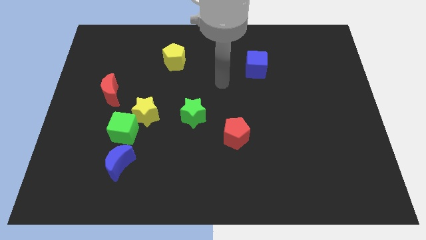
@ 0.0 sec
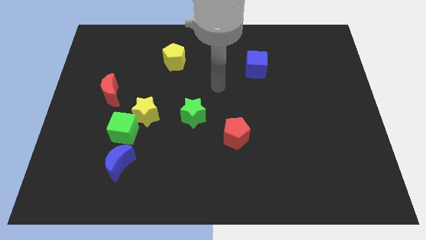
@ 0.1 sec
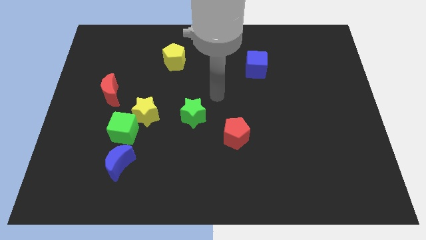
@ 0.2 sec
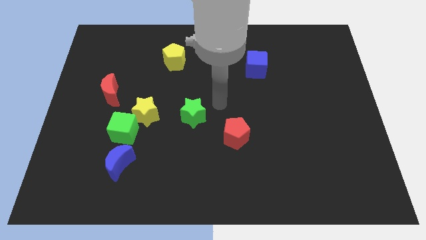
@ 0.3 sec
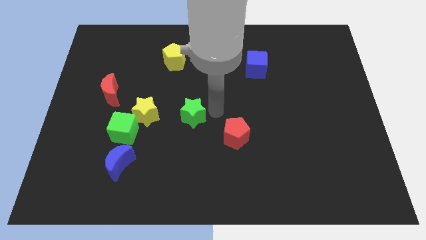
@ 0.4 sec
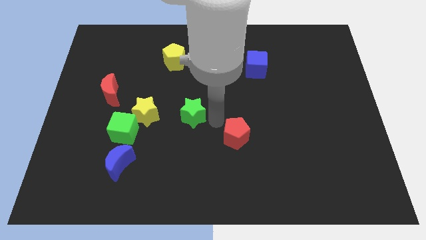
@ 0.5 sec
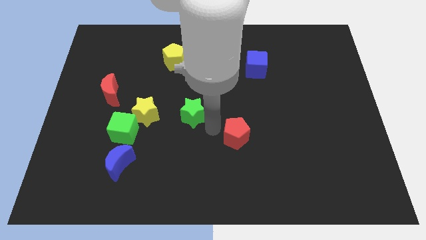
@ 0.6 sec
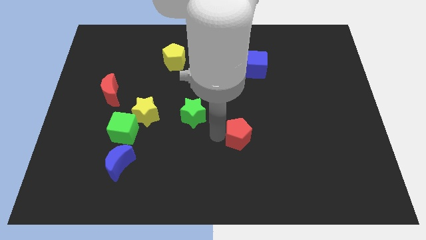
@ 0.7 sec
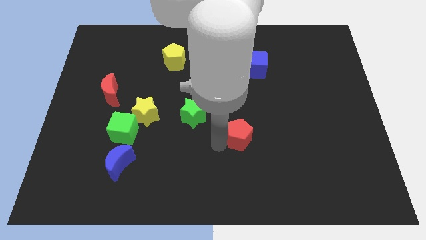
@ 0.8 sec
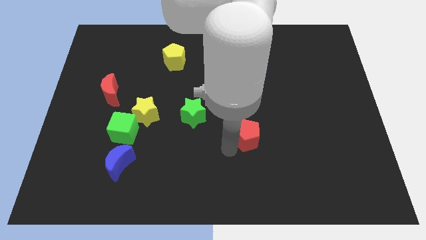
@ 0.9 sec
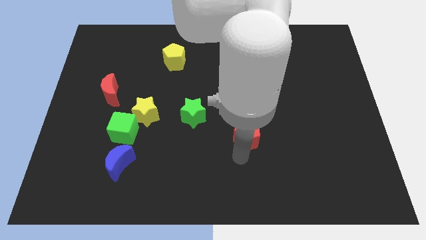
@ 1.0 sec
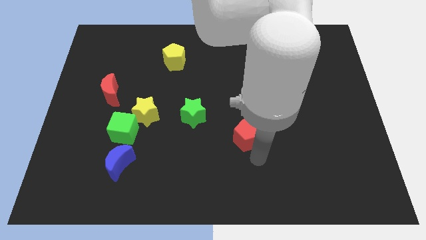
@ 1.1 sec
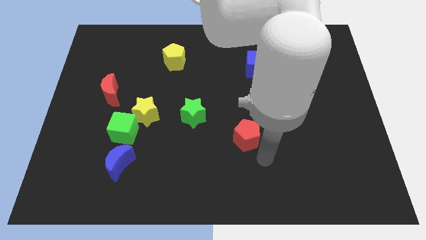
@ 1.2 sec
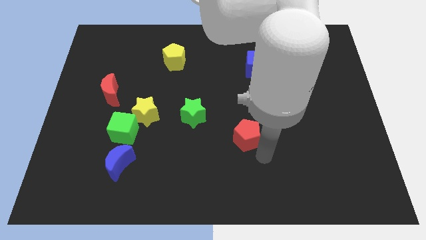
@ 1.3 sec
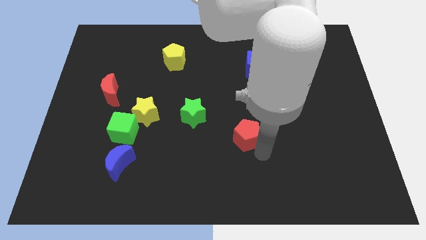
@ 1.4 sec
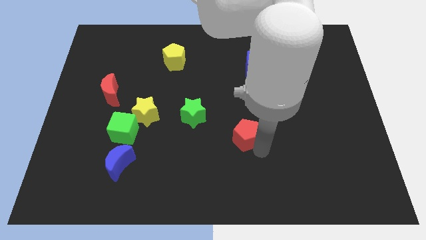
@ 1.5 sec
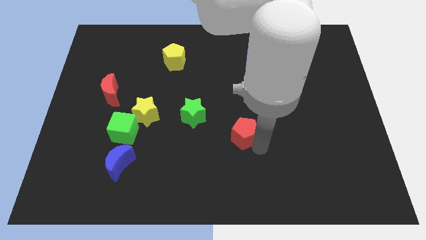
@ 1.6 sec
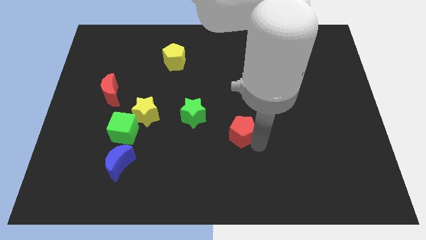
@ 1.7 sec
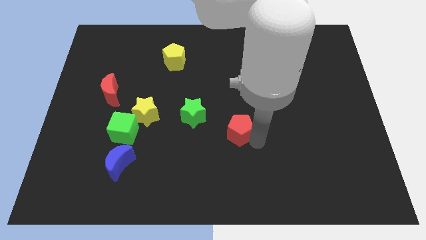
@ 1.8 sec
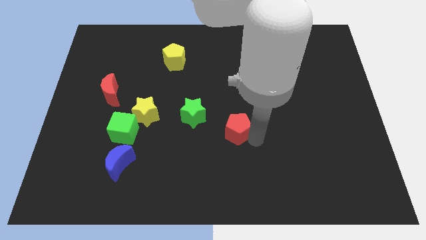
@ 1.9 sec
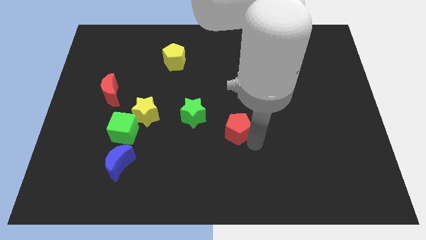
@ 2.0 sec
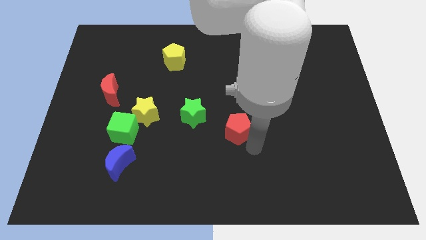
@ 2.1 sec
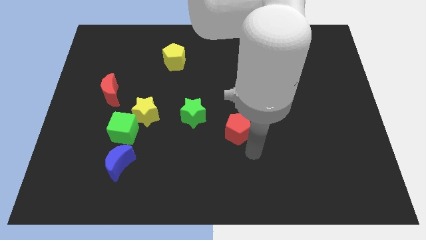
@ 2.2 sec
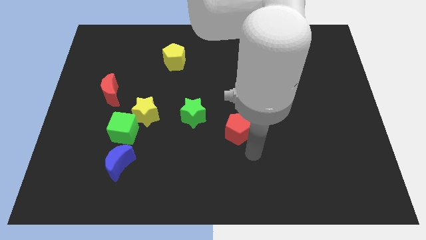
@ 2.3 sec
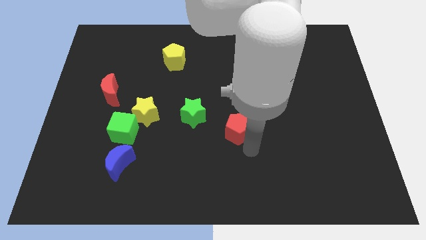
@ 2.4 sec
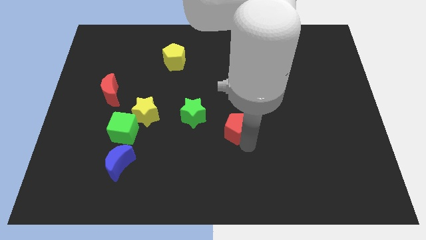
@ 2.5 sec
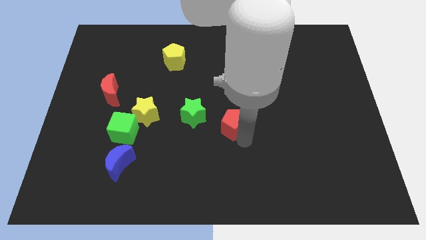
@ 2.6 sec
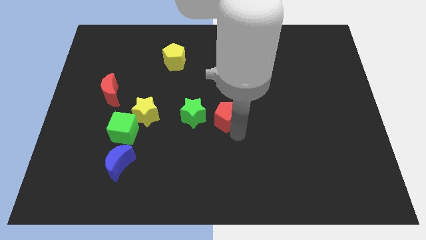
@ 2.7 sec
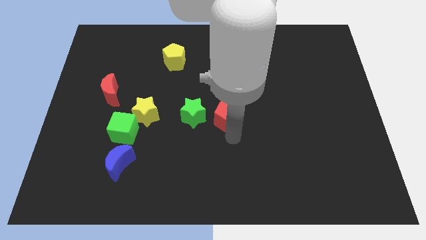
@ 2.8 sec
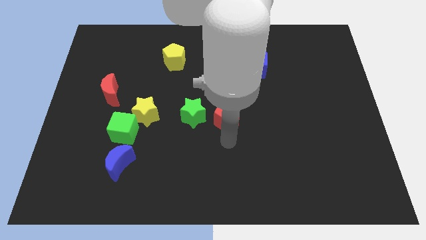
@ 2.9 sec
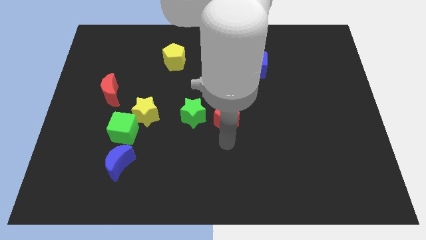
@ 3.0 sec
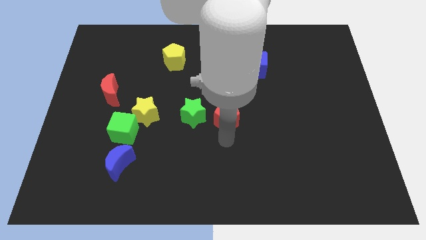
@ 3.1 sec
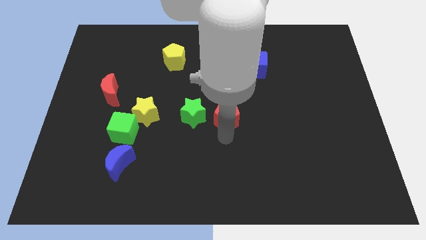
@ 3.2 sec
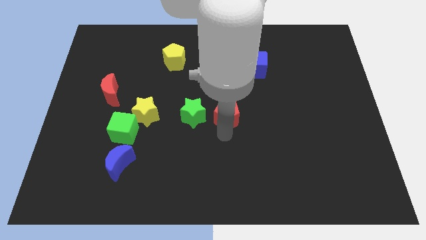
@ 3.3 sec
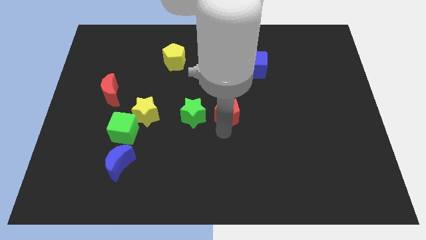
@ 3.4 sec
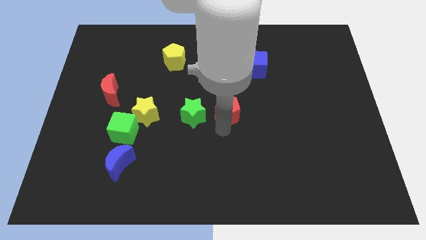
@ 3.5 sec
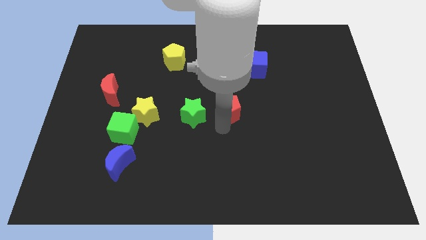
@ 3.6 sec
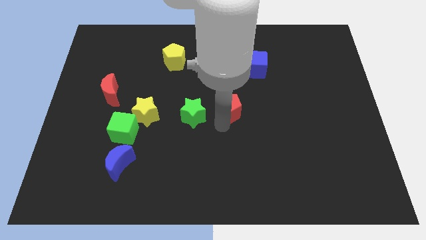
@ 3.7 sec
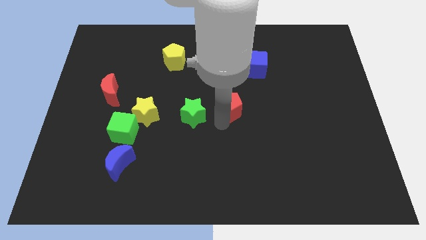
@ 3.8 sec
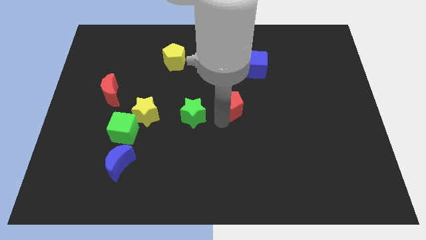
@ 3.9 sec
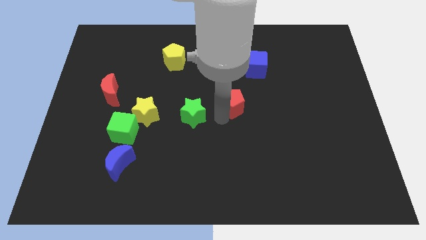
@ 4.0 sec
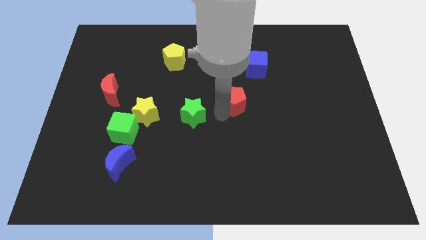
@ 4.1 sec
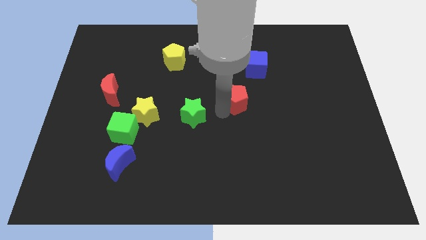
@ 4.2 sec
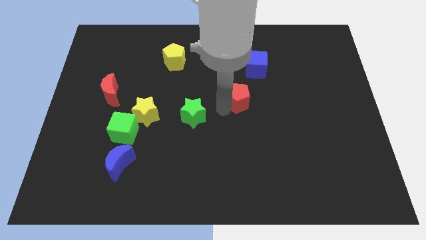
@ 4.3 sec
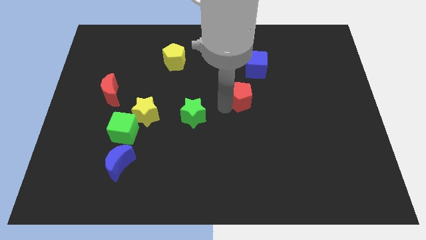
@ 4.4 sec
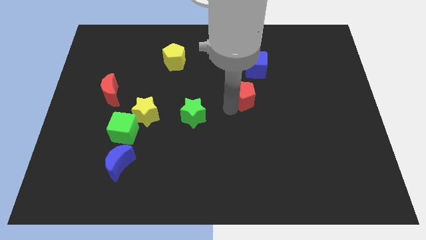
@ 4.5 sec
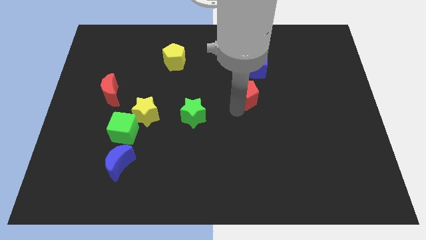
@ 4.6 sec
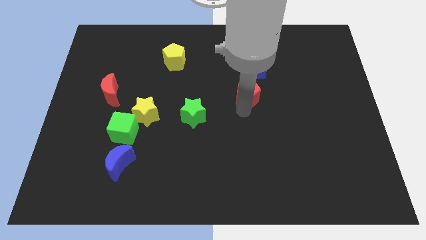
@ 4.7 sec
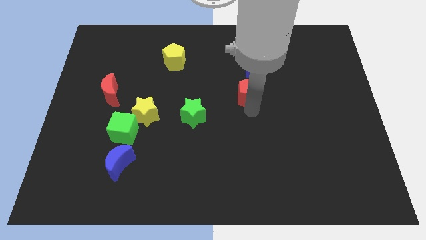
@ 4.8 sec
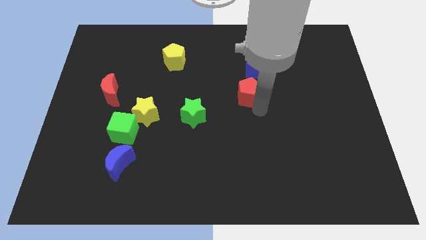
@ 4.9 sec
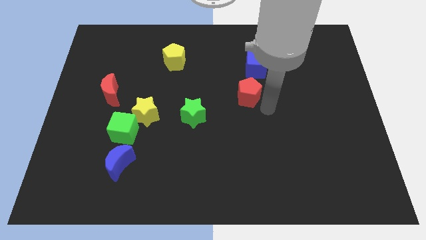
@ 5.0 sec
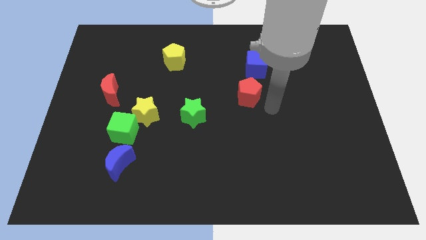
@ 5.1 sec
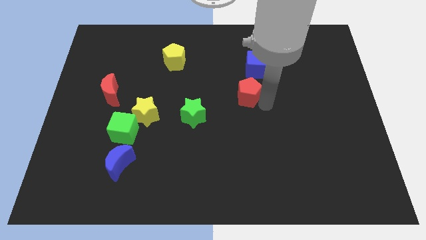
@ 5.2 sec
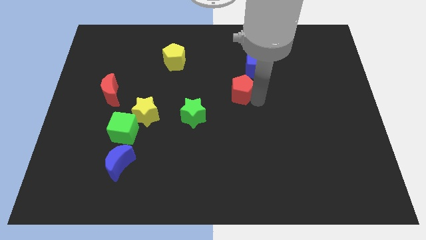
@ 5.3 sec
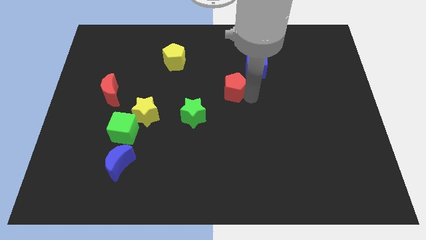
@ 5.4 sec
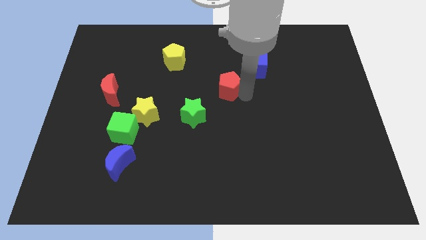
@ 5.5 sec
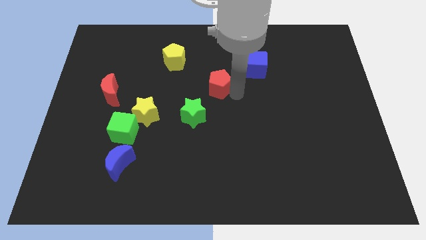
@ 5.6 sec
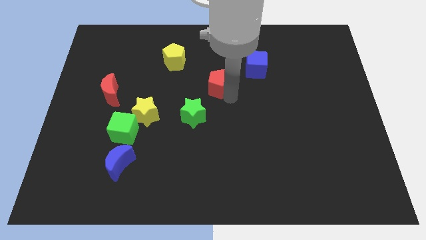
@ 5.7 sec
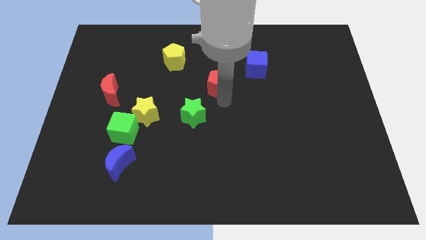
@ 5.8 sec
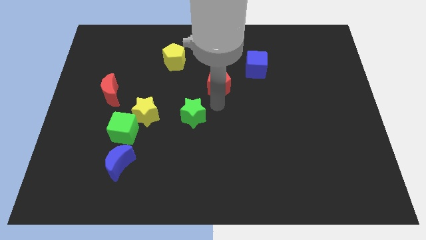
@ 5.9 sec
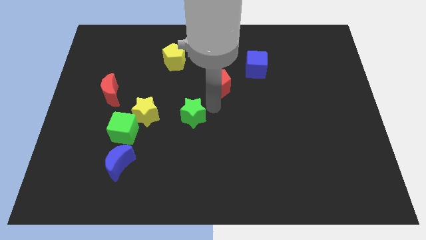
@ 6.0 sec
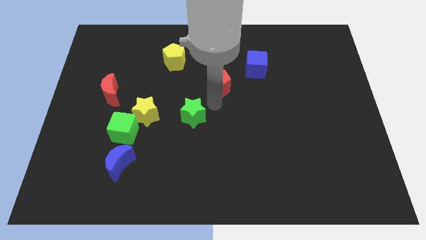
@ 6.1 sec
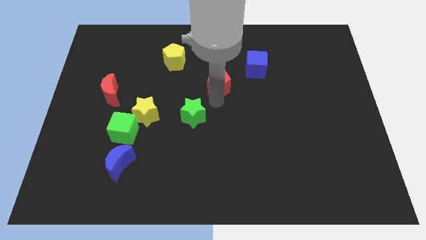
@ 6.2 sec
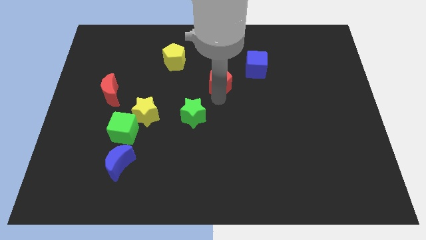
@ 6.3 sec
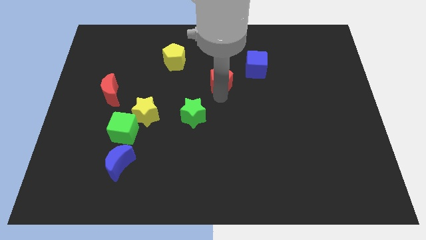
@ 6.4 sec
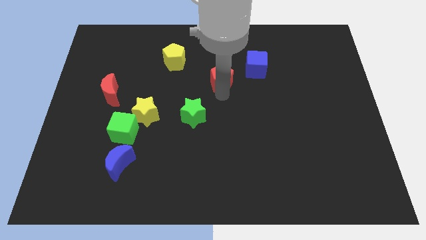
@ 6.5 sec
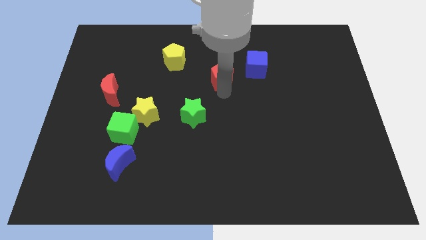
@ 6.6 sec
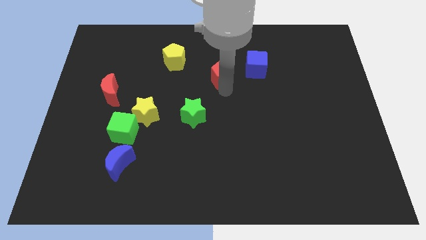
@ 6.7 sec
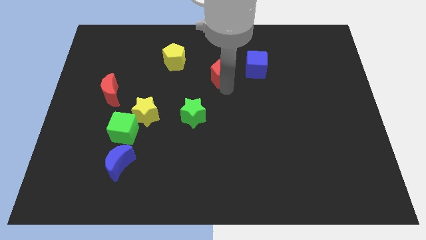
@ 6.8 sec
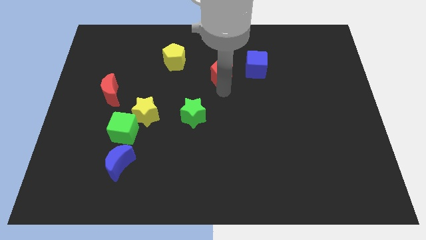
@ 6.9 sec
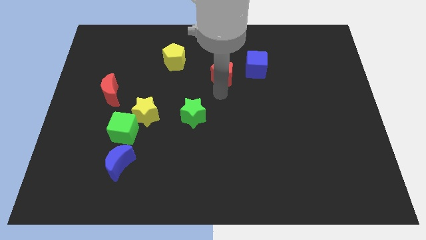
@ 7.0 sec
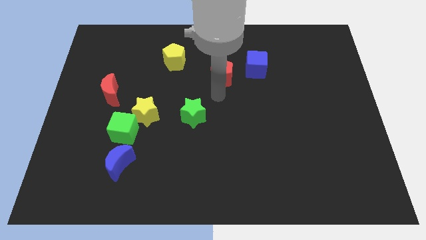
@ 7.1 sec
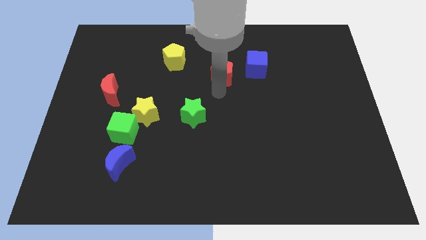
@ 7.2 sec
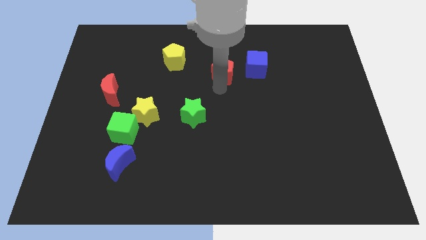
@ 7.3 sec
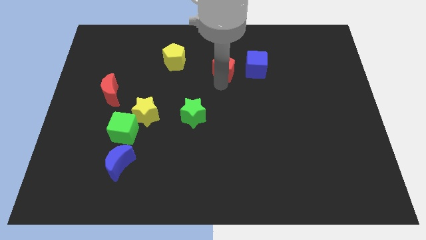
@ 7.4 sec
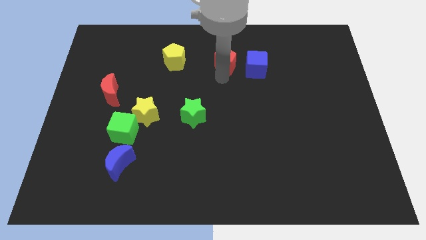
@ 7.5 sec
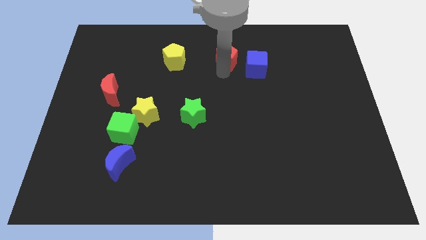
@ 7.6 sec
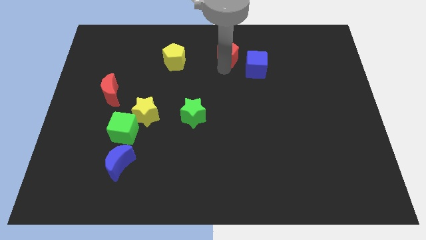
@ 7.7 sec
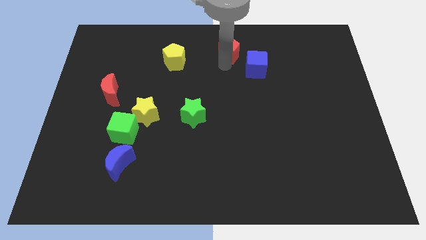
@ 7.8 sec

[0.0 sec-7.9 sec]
push the red pentagon to the towards your base
